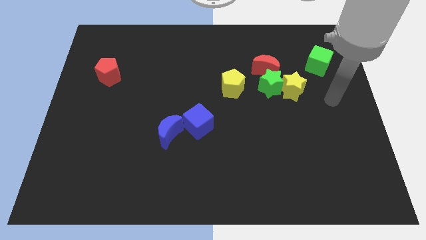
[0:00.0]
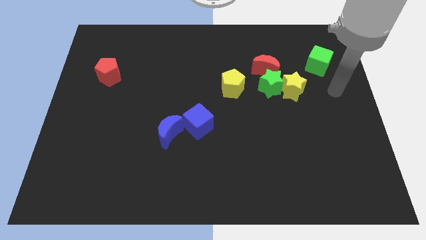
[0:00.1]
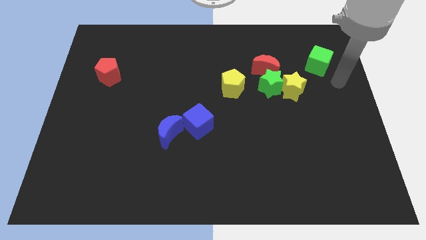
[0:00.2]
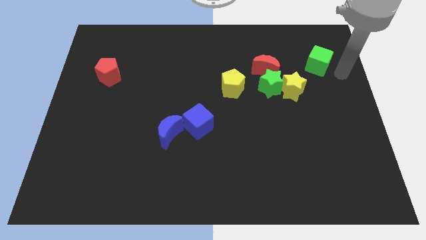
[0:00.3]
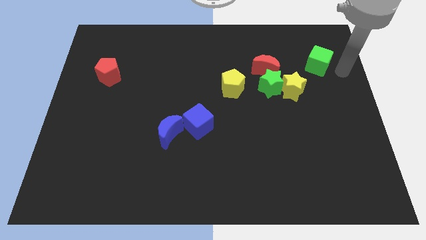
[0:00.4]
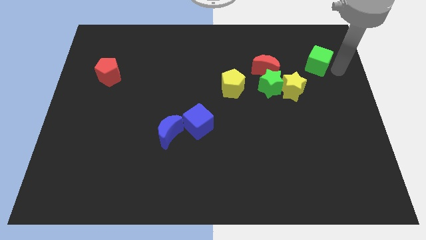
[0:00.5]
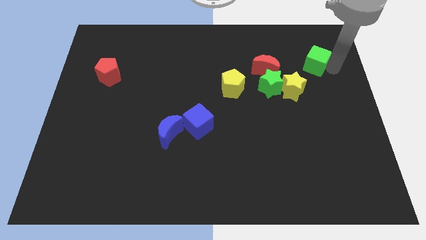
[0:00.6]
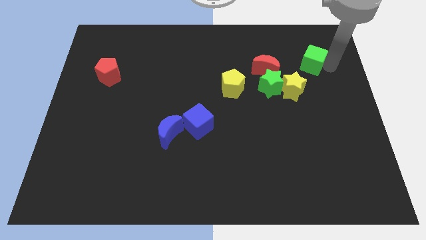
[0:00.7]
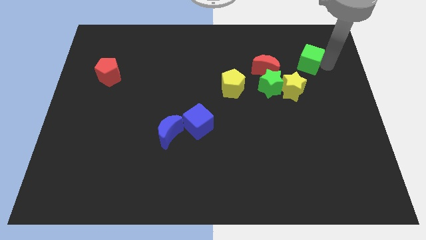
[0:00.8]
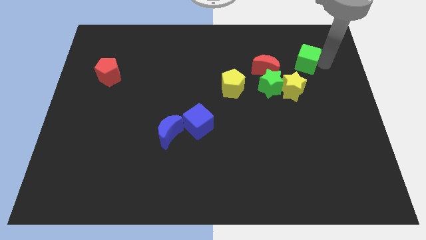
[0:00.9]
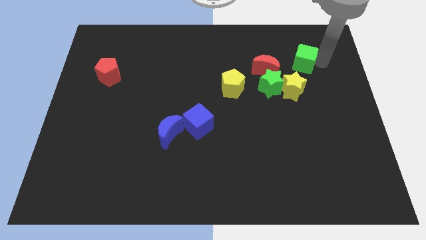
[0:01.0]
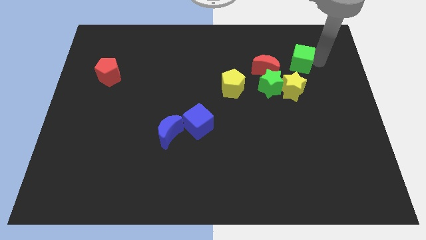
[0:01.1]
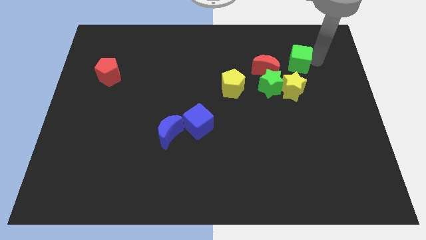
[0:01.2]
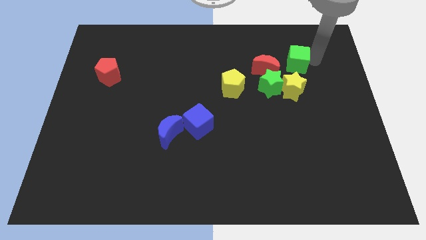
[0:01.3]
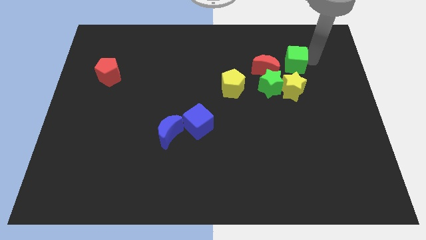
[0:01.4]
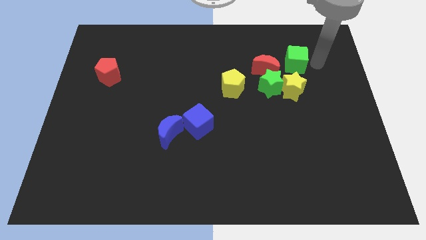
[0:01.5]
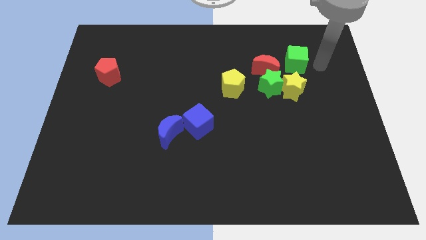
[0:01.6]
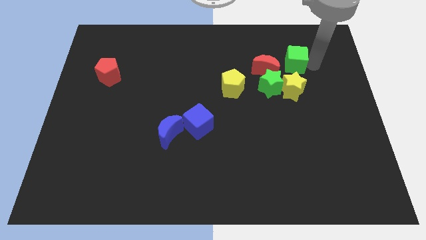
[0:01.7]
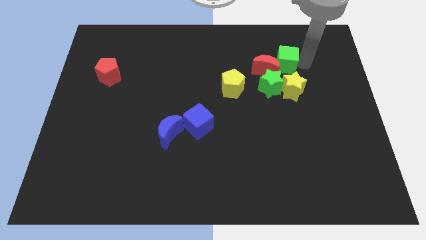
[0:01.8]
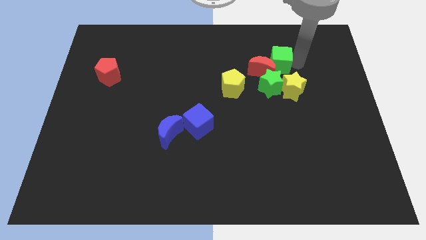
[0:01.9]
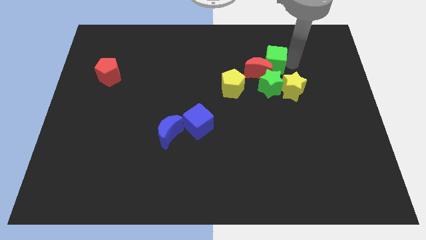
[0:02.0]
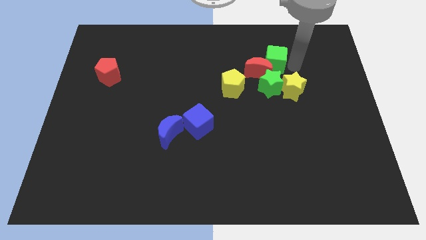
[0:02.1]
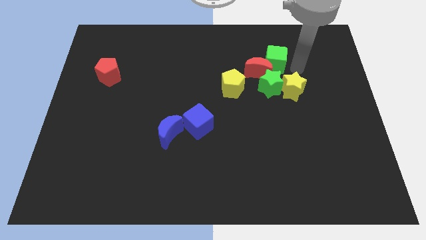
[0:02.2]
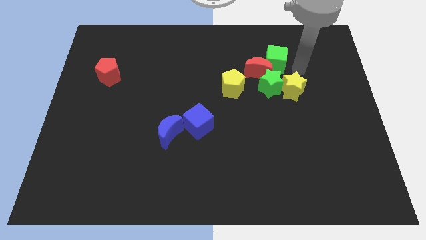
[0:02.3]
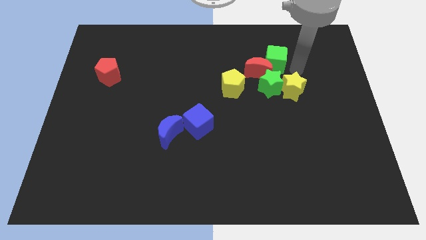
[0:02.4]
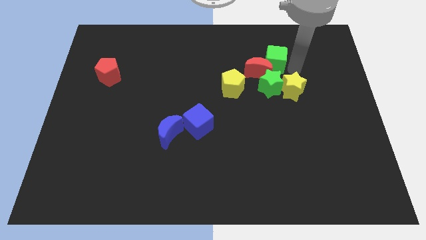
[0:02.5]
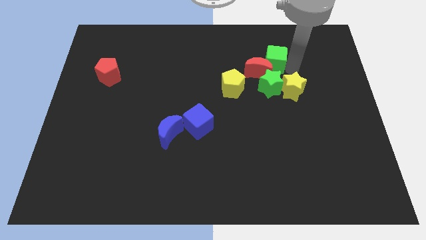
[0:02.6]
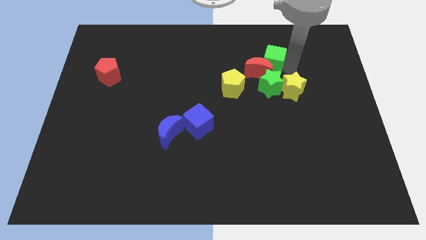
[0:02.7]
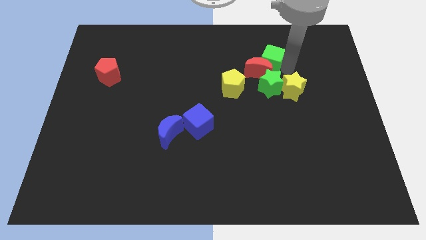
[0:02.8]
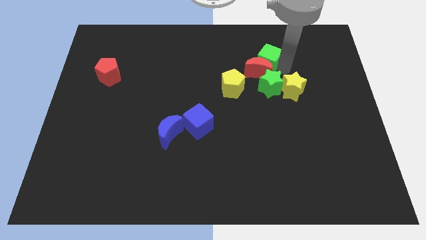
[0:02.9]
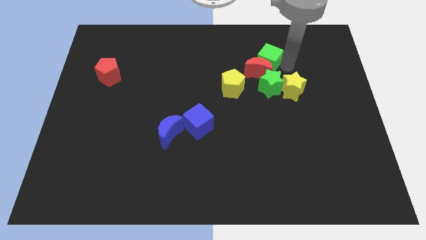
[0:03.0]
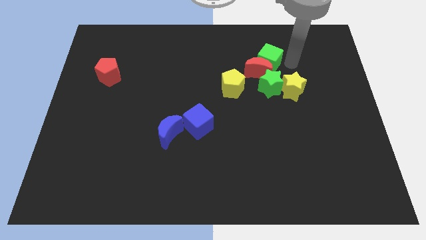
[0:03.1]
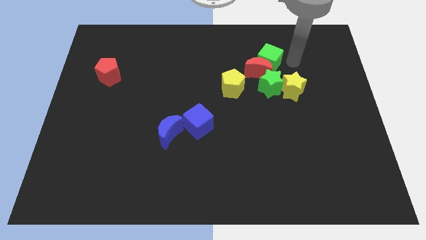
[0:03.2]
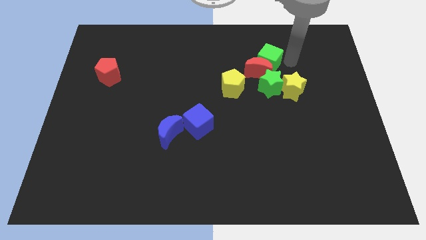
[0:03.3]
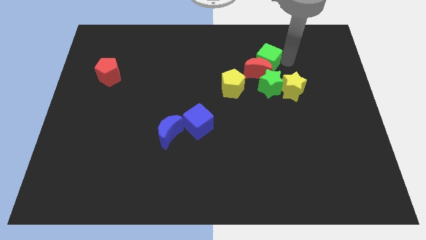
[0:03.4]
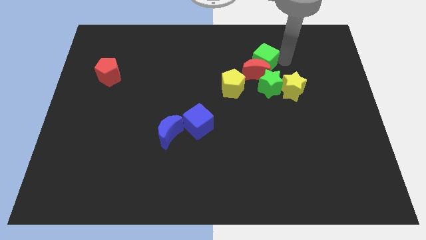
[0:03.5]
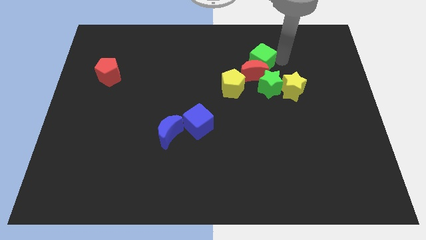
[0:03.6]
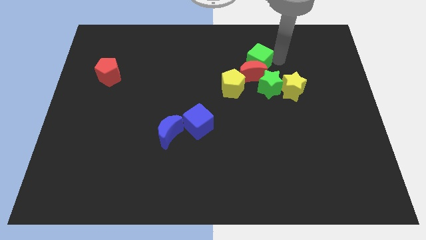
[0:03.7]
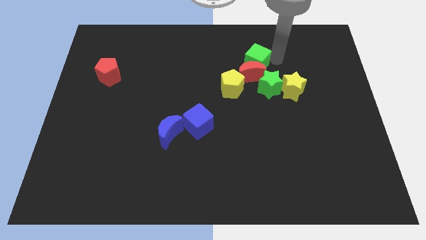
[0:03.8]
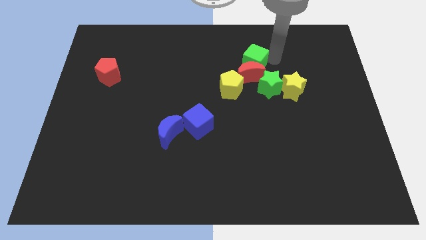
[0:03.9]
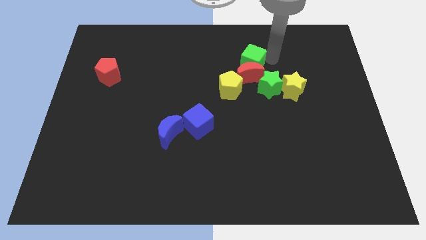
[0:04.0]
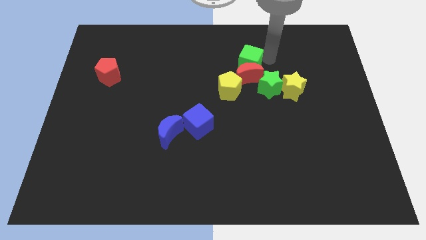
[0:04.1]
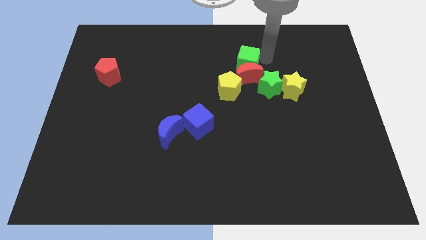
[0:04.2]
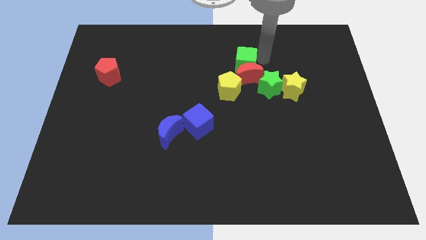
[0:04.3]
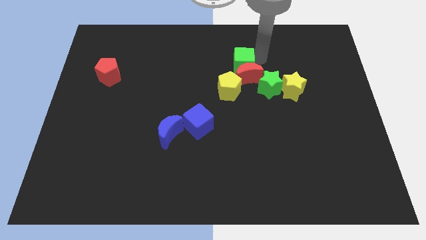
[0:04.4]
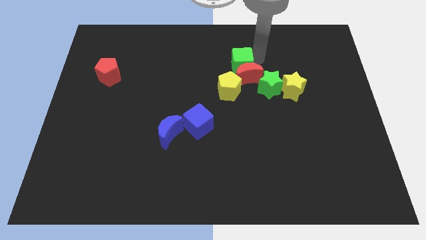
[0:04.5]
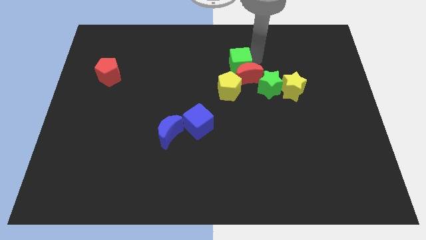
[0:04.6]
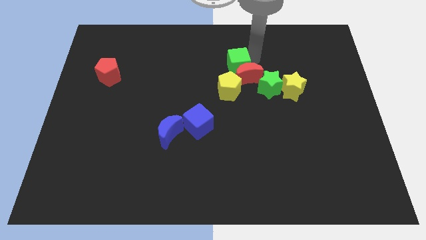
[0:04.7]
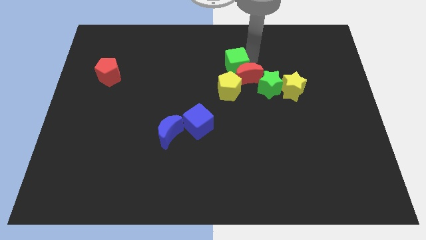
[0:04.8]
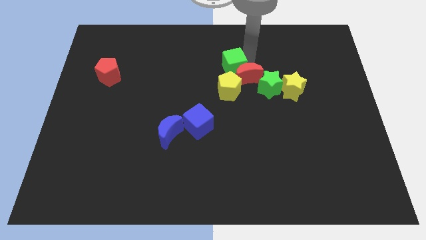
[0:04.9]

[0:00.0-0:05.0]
put the green cube to the middle of the board

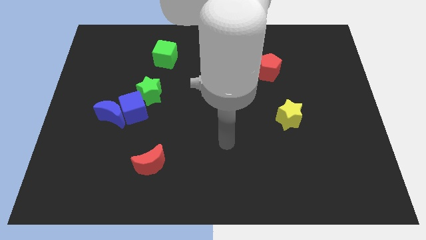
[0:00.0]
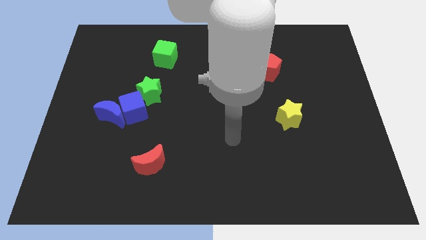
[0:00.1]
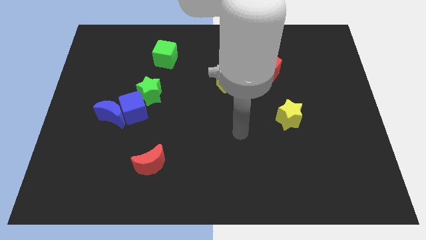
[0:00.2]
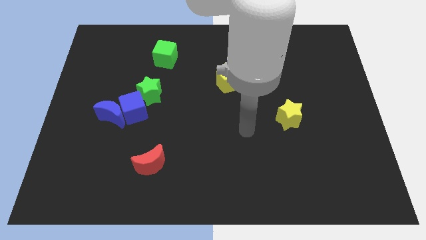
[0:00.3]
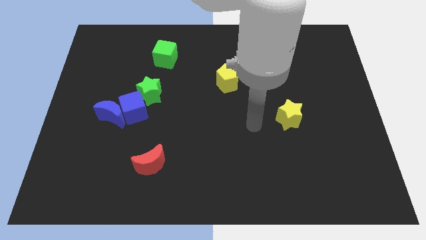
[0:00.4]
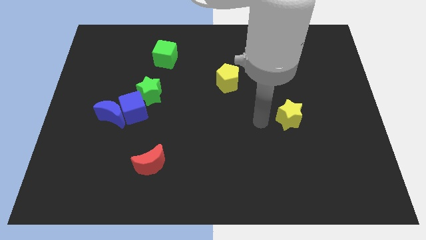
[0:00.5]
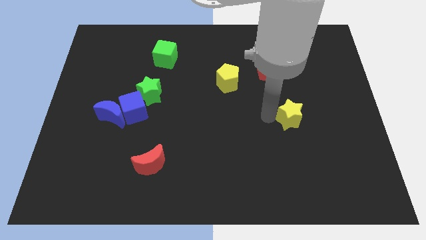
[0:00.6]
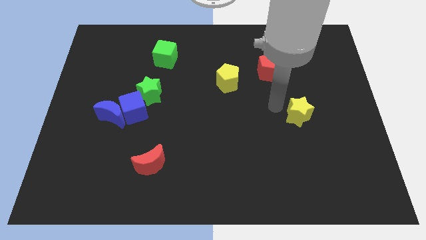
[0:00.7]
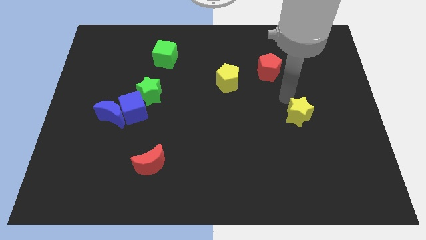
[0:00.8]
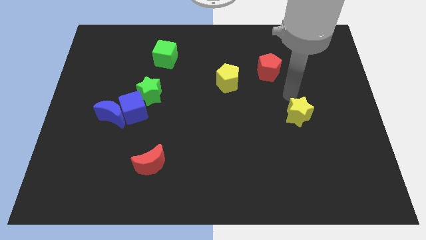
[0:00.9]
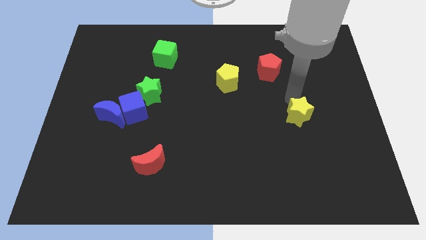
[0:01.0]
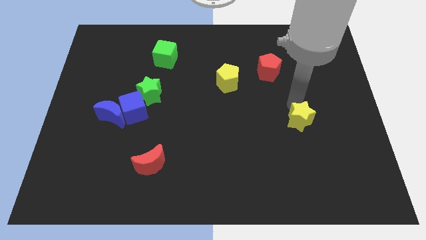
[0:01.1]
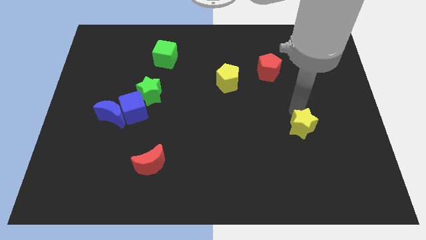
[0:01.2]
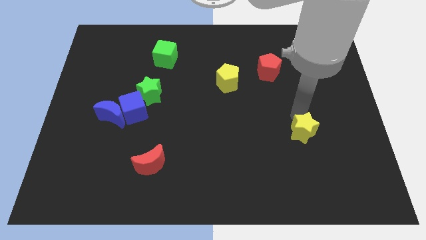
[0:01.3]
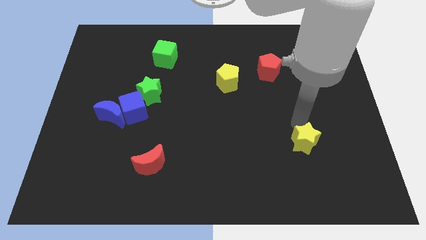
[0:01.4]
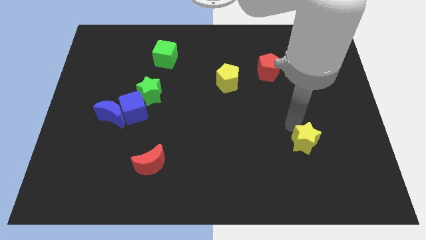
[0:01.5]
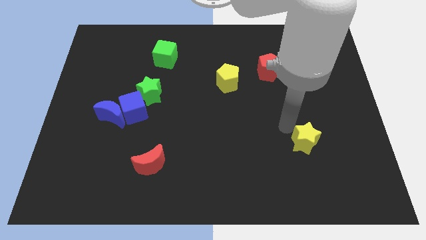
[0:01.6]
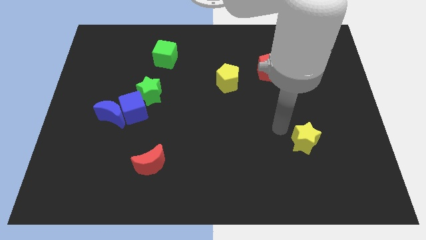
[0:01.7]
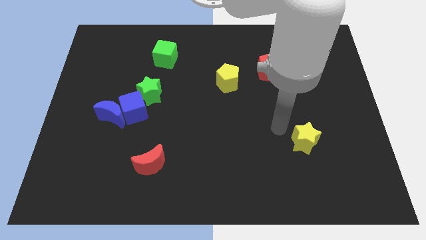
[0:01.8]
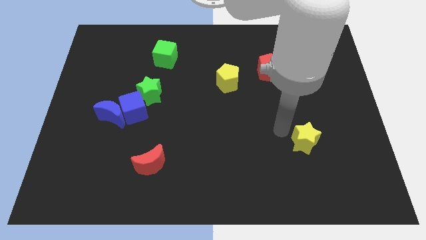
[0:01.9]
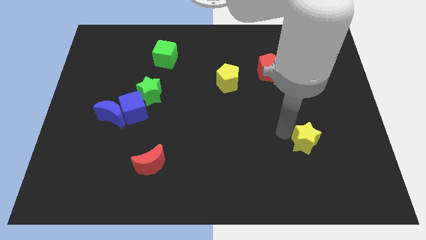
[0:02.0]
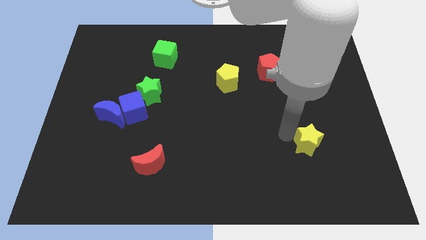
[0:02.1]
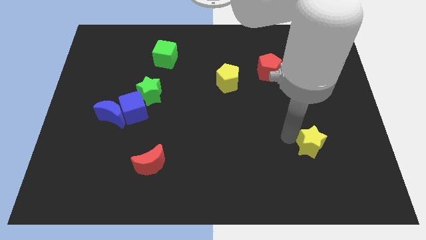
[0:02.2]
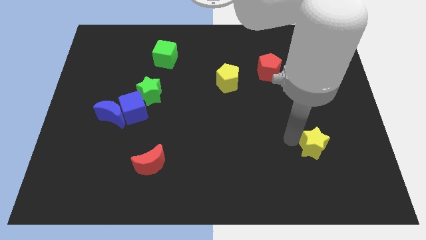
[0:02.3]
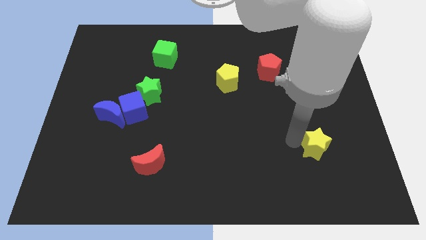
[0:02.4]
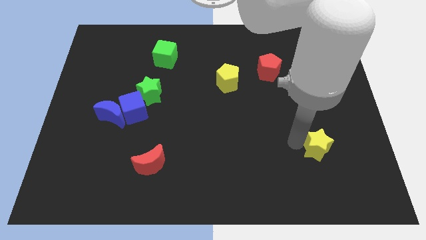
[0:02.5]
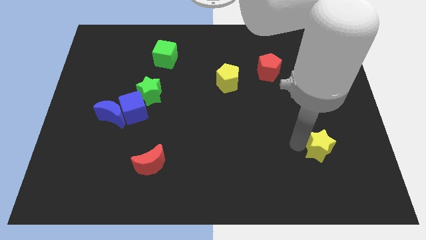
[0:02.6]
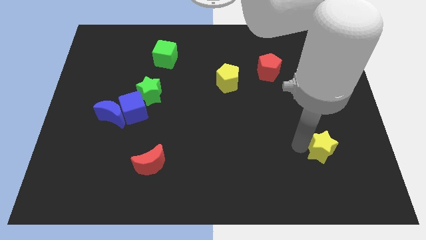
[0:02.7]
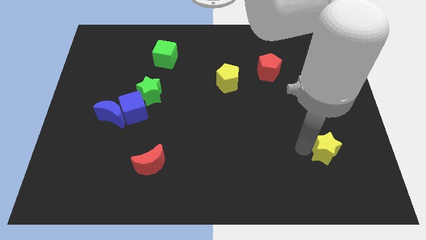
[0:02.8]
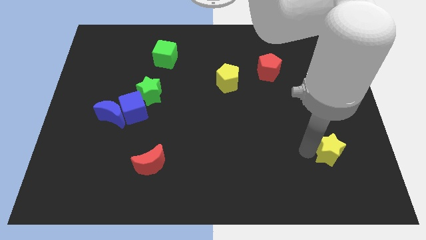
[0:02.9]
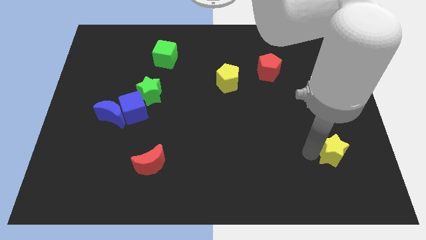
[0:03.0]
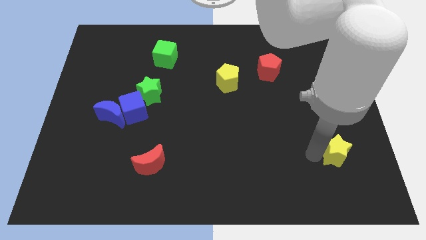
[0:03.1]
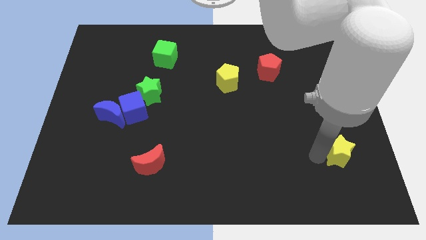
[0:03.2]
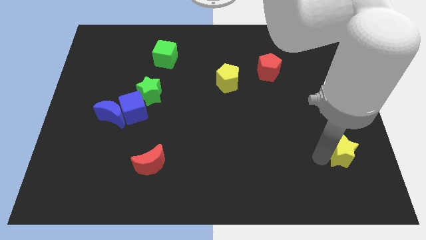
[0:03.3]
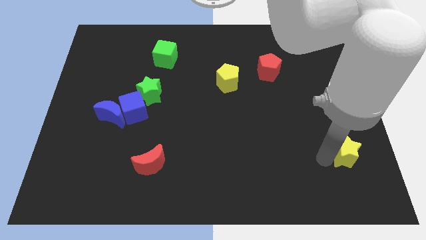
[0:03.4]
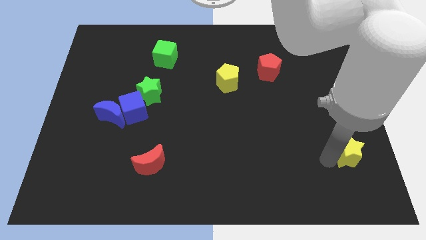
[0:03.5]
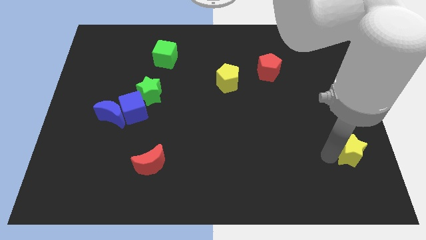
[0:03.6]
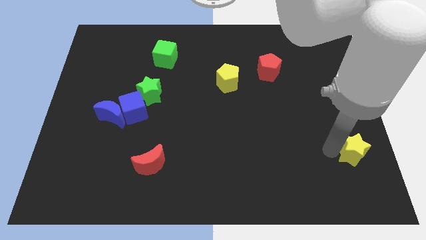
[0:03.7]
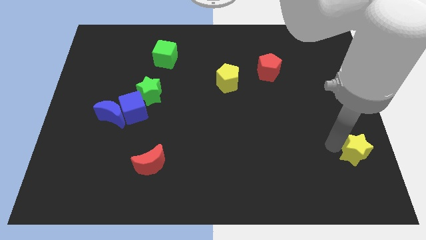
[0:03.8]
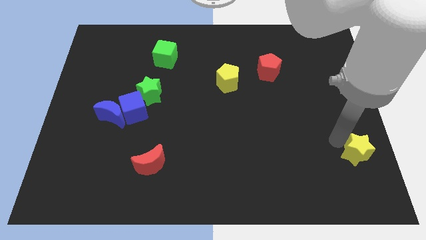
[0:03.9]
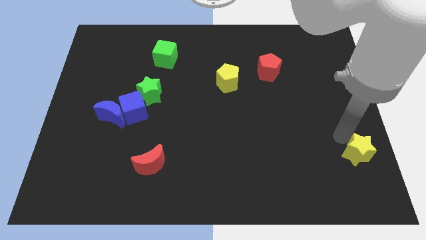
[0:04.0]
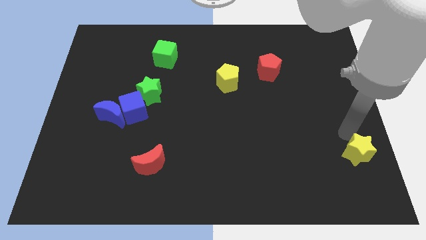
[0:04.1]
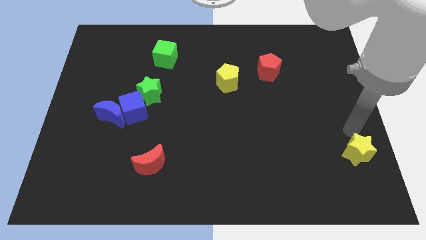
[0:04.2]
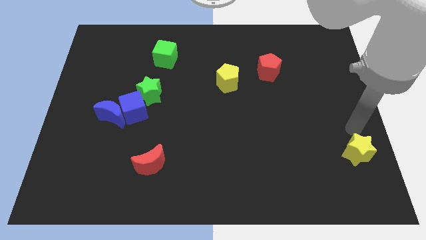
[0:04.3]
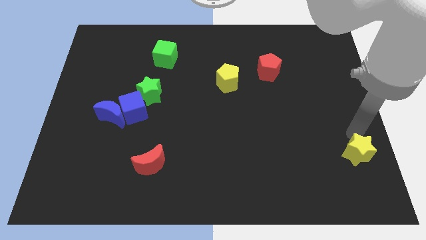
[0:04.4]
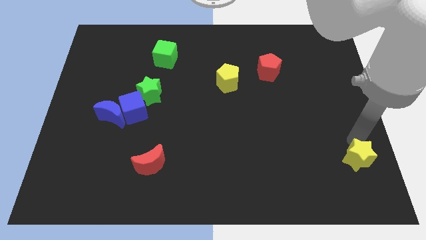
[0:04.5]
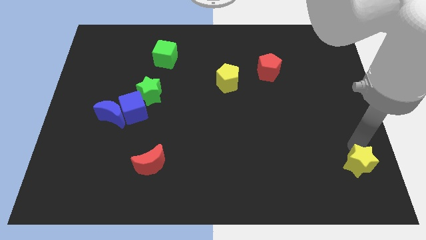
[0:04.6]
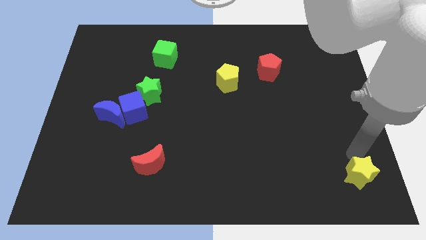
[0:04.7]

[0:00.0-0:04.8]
slide the yellow star to the bottom right of the board
